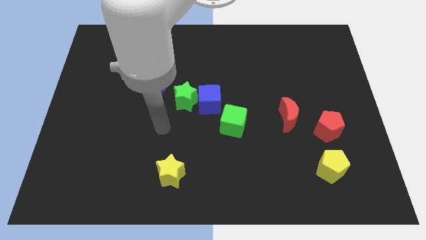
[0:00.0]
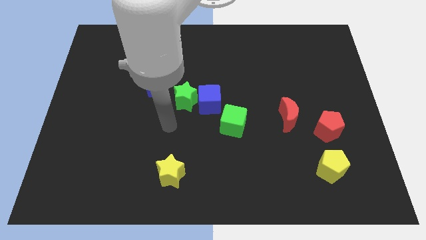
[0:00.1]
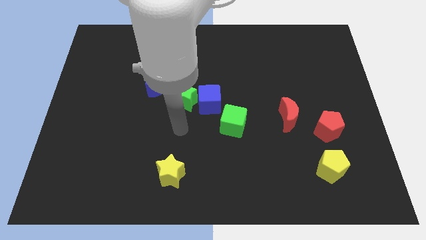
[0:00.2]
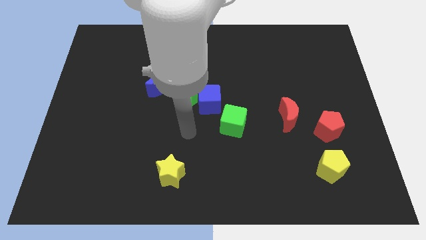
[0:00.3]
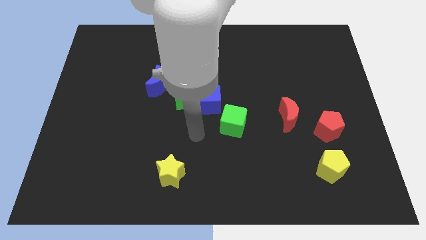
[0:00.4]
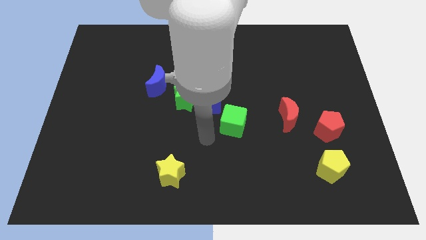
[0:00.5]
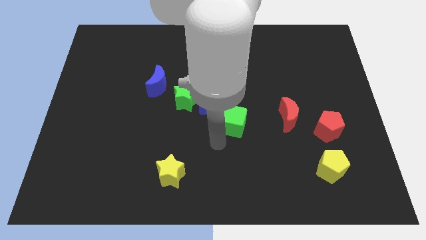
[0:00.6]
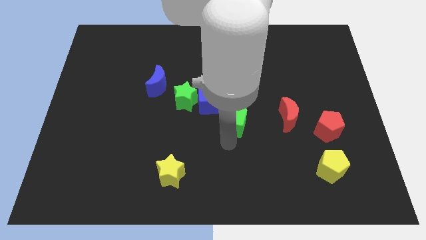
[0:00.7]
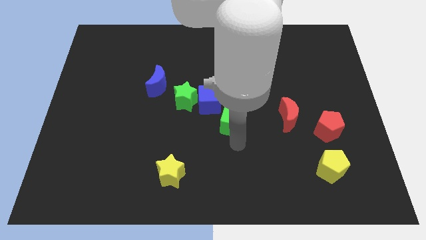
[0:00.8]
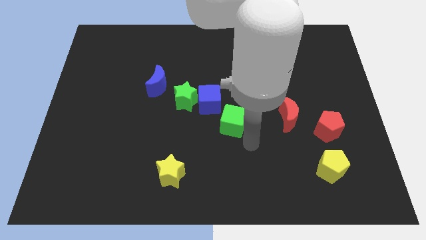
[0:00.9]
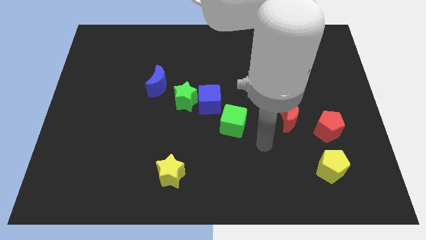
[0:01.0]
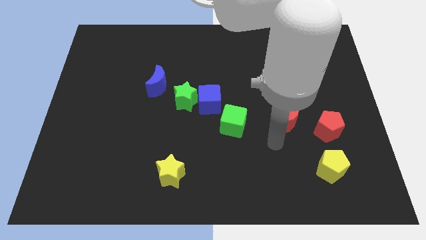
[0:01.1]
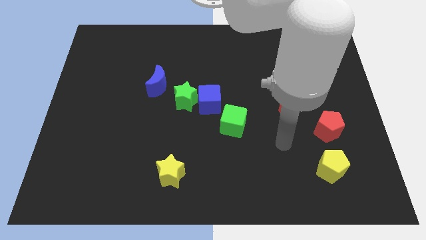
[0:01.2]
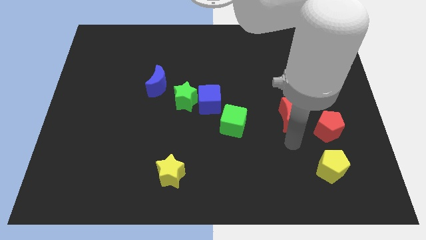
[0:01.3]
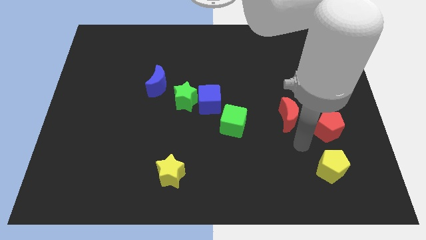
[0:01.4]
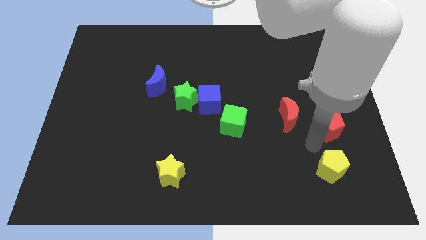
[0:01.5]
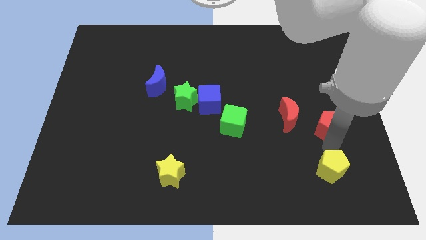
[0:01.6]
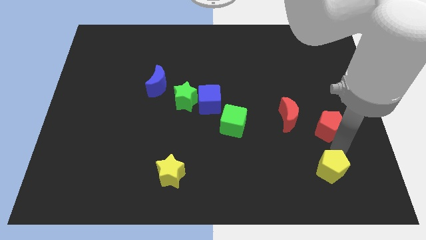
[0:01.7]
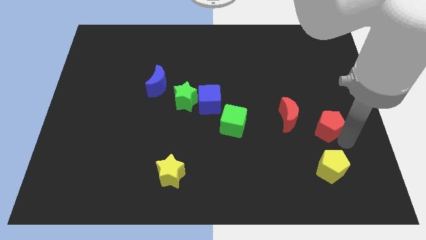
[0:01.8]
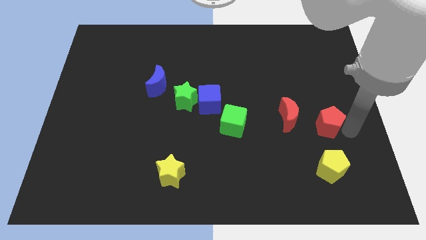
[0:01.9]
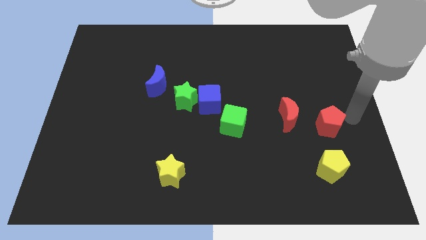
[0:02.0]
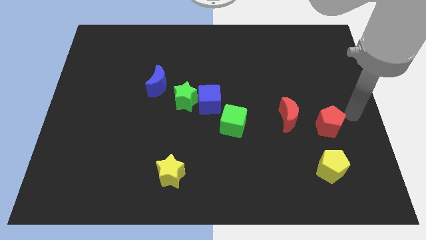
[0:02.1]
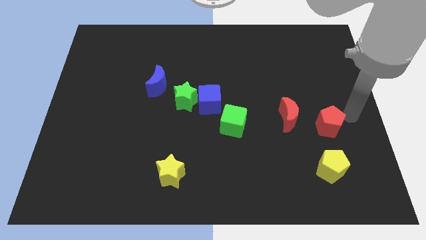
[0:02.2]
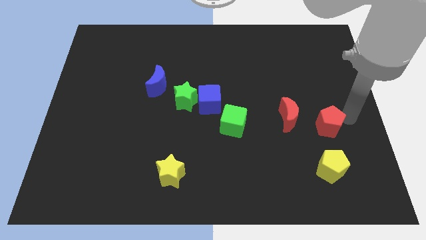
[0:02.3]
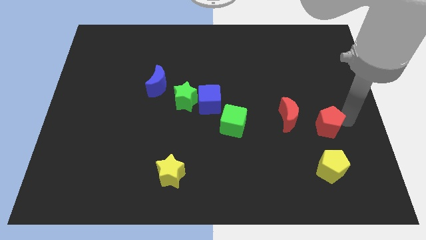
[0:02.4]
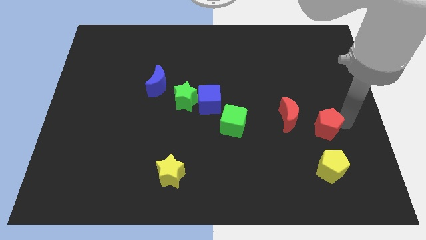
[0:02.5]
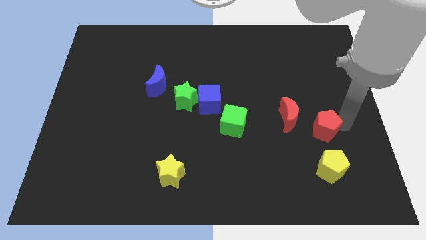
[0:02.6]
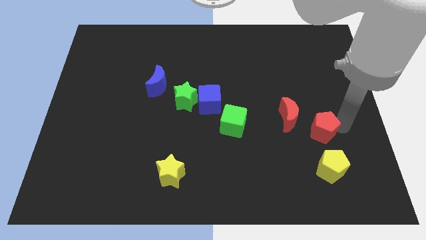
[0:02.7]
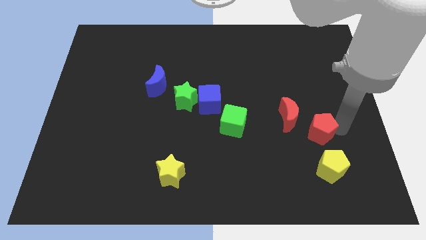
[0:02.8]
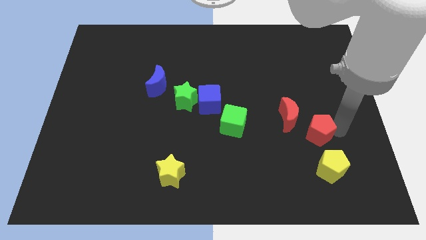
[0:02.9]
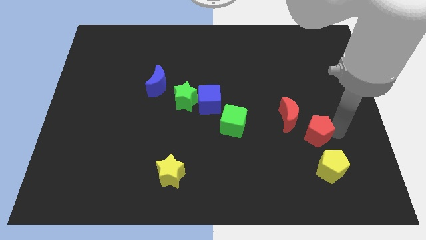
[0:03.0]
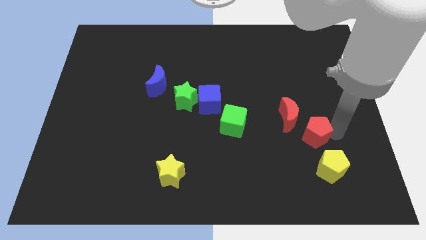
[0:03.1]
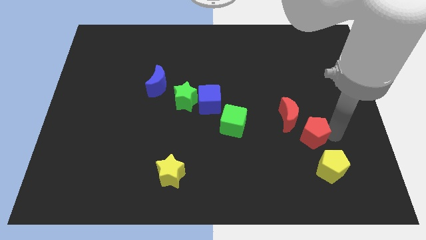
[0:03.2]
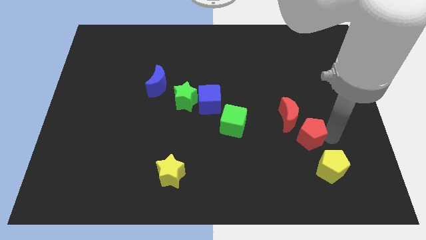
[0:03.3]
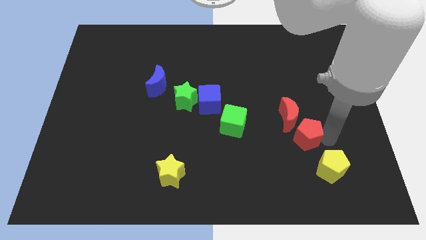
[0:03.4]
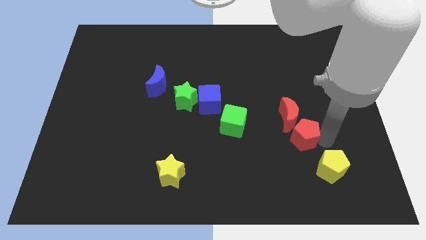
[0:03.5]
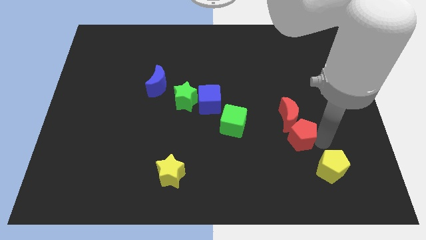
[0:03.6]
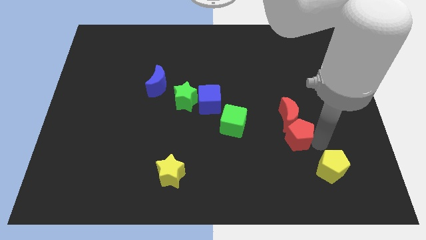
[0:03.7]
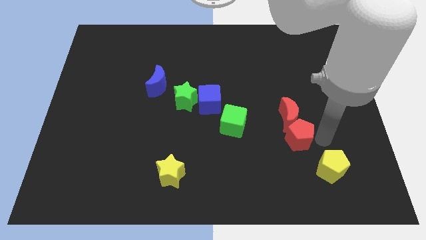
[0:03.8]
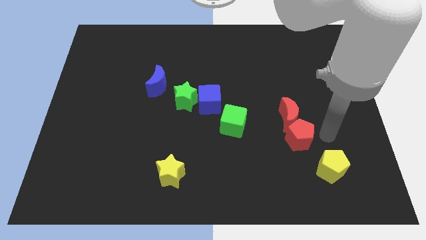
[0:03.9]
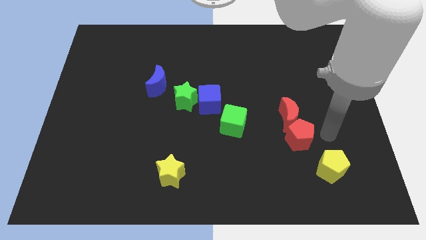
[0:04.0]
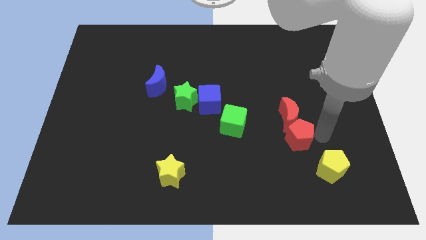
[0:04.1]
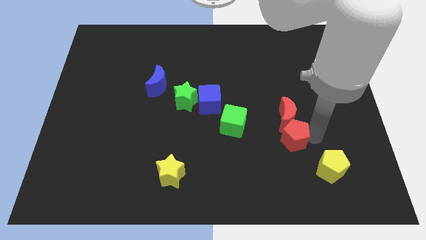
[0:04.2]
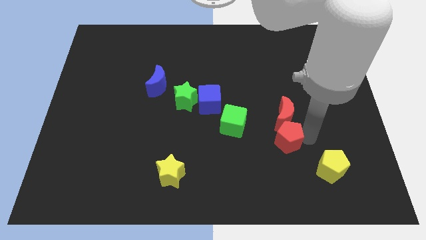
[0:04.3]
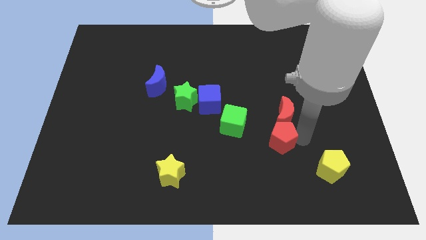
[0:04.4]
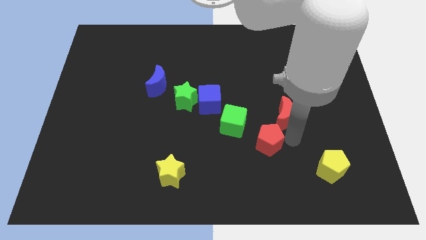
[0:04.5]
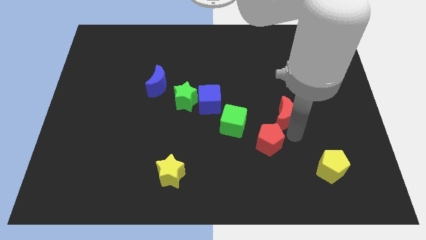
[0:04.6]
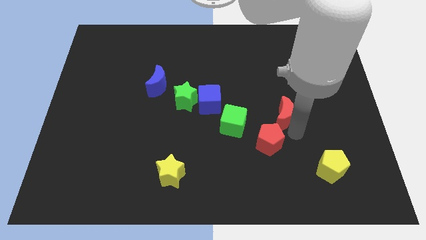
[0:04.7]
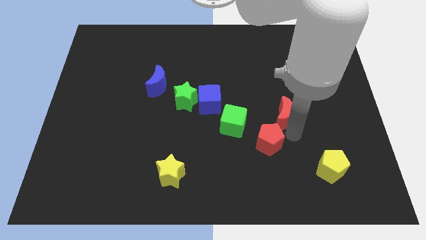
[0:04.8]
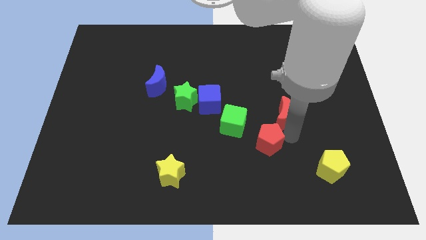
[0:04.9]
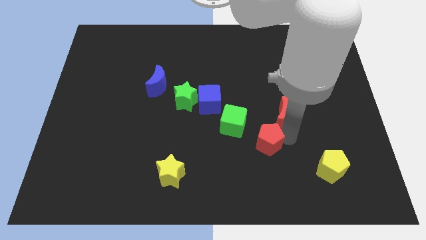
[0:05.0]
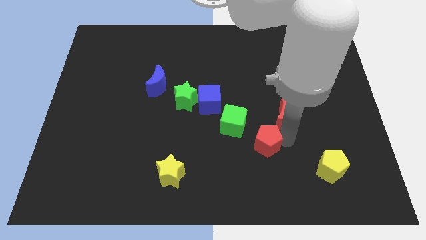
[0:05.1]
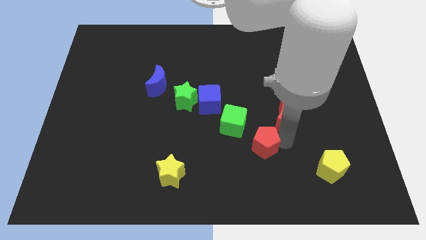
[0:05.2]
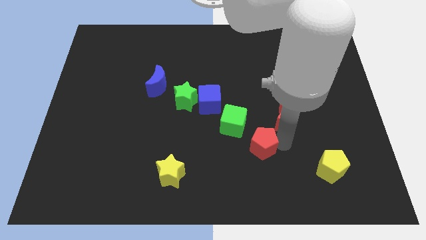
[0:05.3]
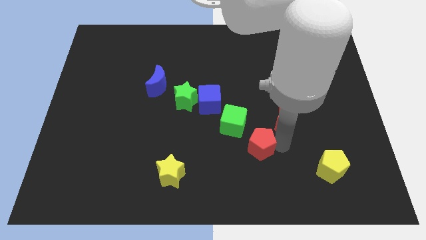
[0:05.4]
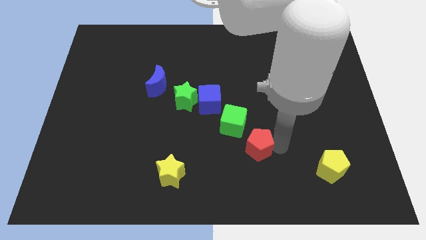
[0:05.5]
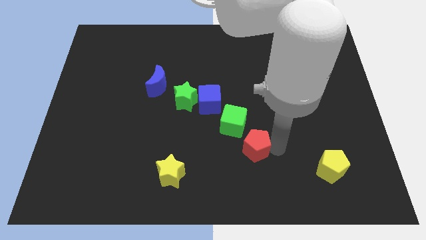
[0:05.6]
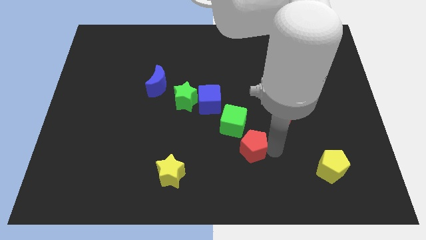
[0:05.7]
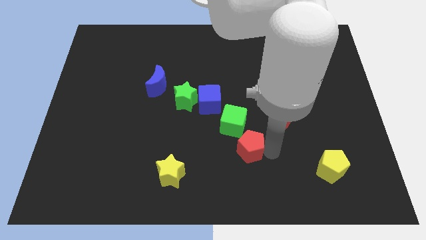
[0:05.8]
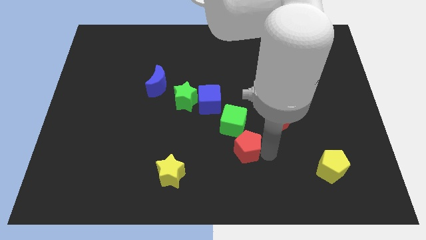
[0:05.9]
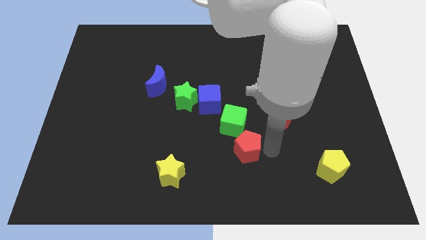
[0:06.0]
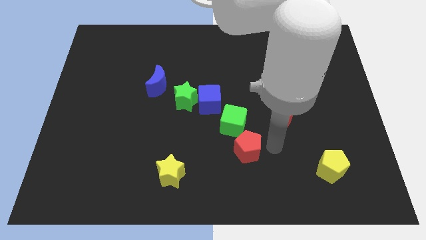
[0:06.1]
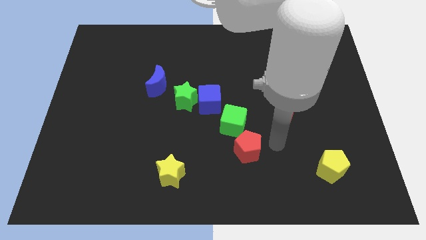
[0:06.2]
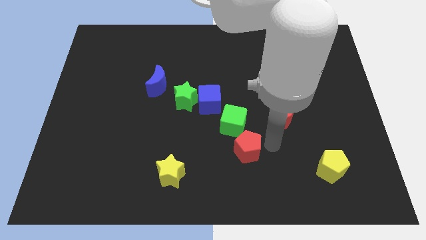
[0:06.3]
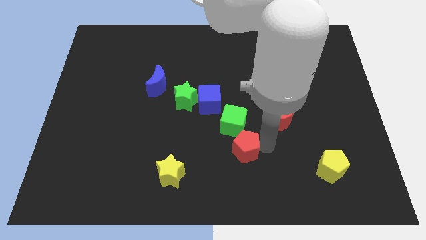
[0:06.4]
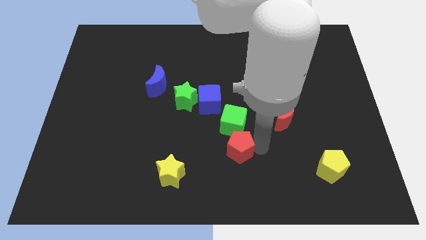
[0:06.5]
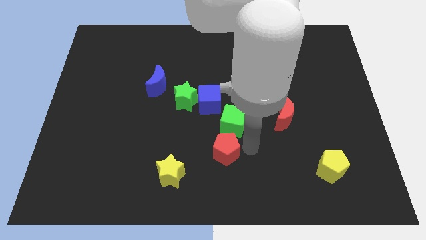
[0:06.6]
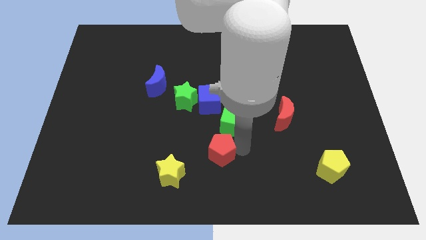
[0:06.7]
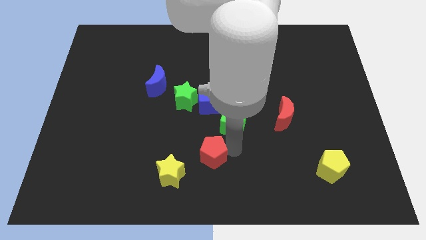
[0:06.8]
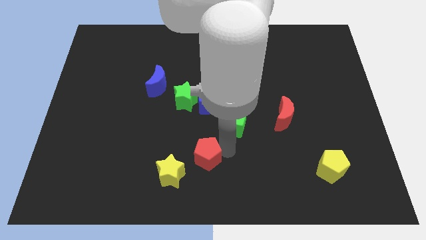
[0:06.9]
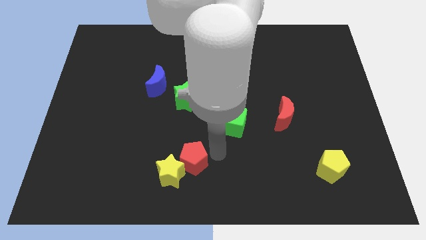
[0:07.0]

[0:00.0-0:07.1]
push the red pentagon close to the yellow star

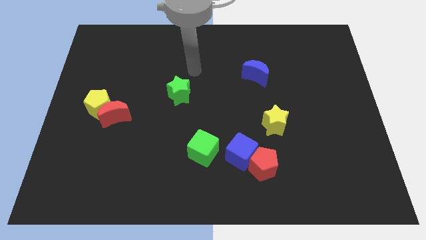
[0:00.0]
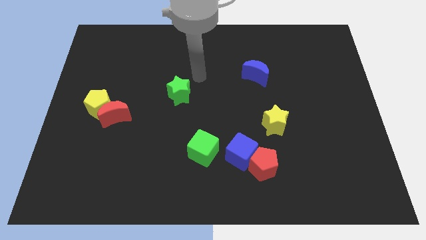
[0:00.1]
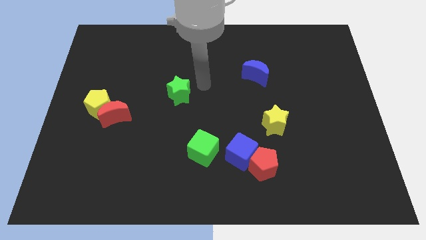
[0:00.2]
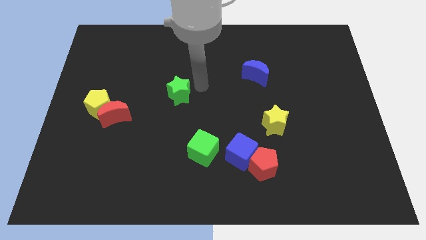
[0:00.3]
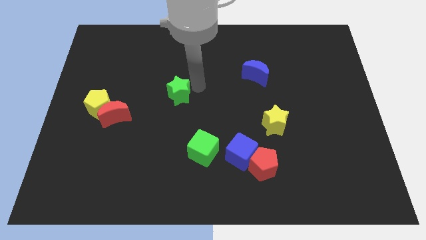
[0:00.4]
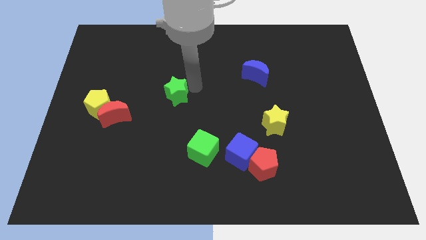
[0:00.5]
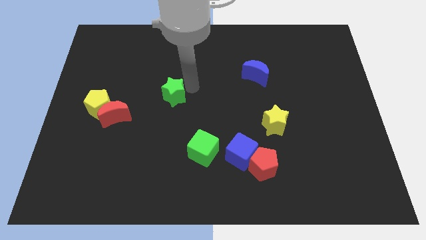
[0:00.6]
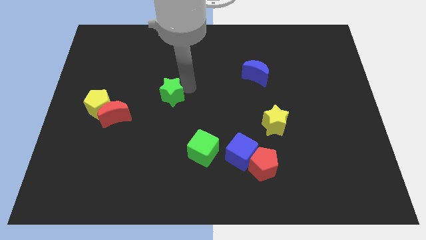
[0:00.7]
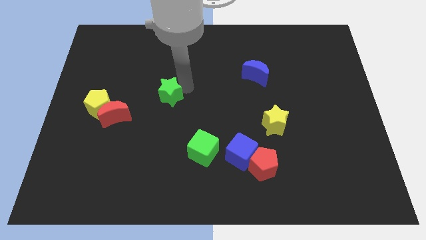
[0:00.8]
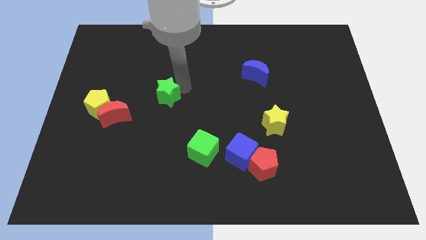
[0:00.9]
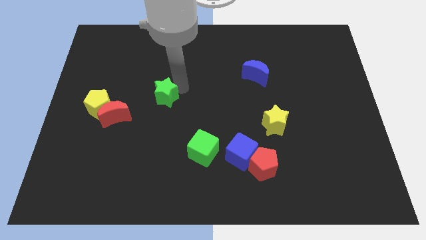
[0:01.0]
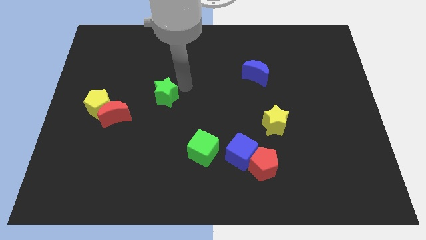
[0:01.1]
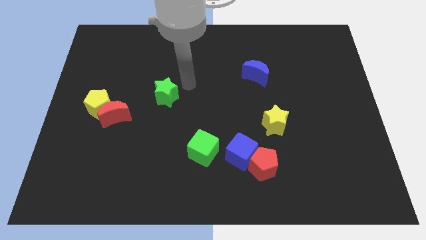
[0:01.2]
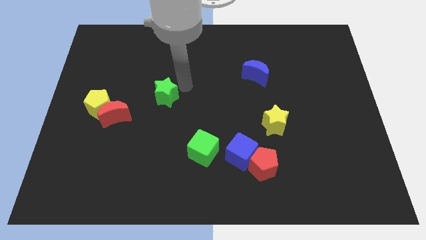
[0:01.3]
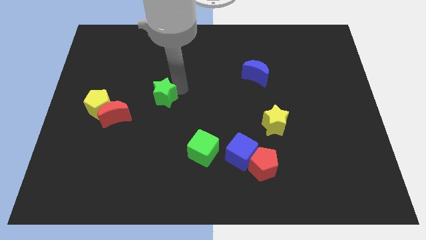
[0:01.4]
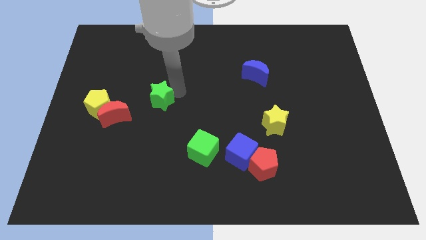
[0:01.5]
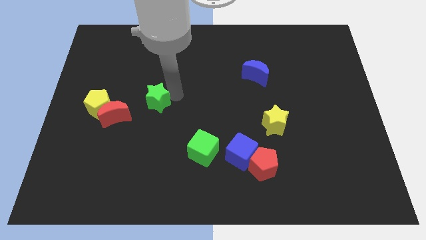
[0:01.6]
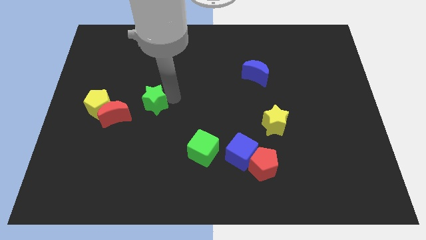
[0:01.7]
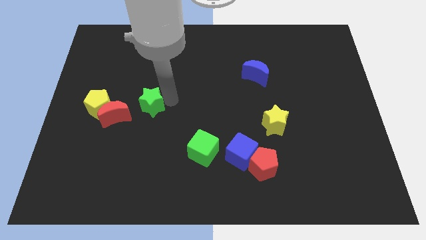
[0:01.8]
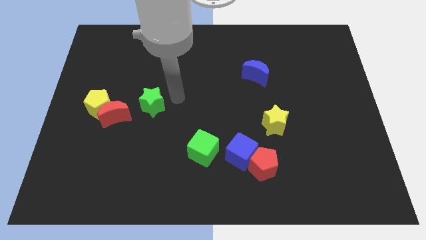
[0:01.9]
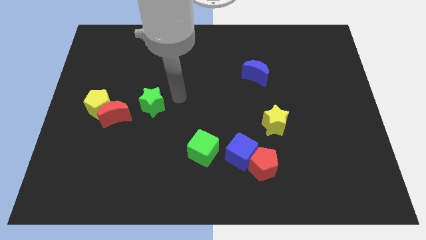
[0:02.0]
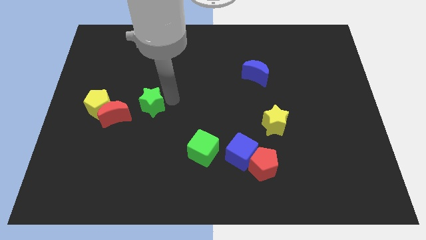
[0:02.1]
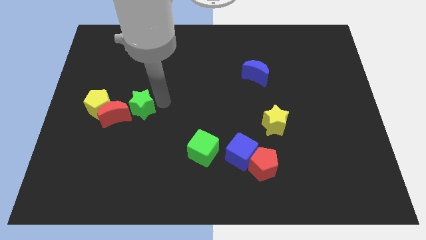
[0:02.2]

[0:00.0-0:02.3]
put the green star towards the red moon
